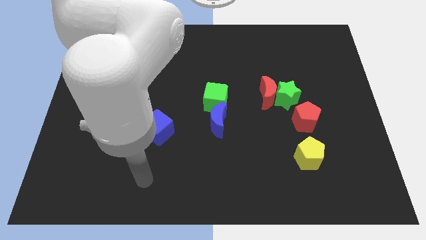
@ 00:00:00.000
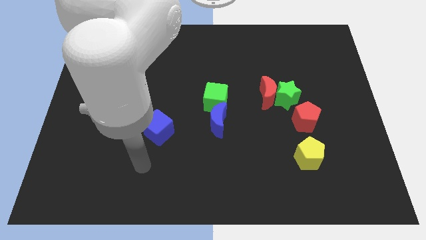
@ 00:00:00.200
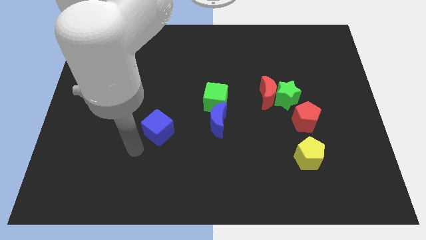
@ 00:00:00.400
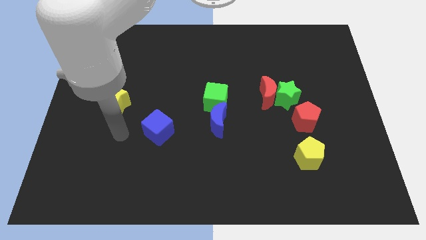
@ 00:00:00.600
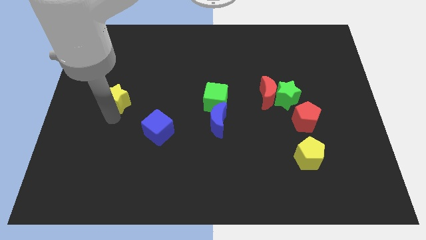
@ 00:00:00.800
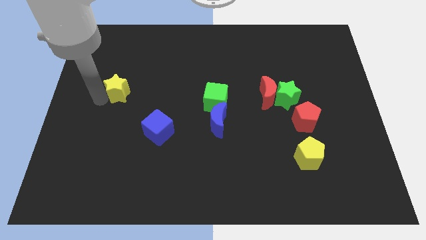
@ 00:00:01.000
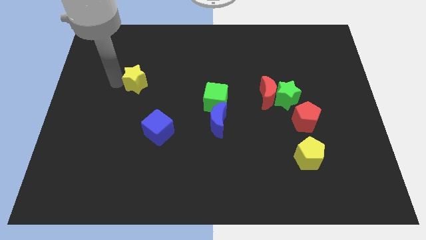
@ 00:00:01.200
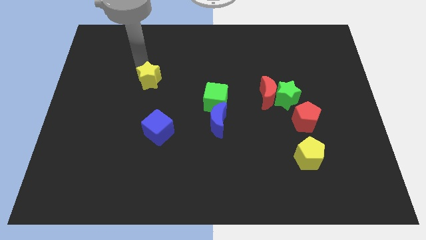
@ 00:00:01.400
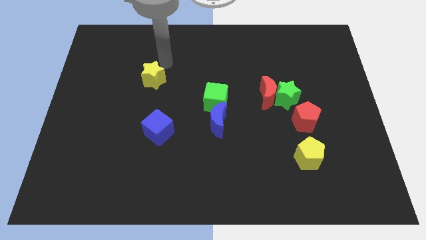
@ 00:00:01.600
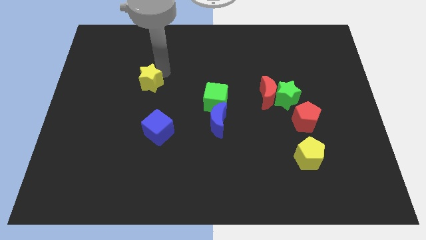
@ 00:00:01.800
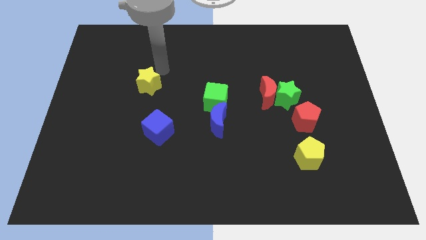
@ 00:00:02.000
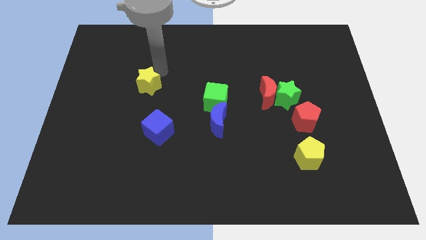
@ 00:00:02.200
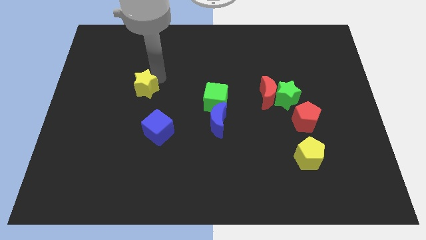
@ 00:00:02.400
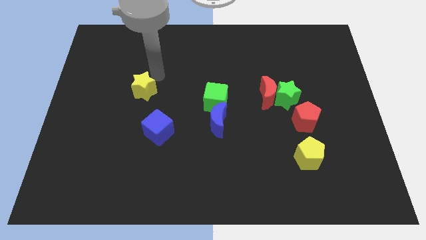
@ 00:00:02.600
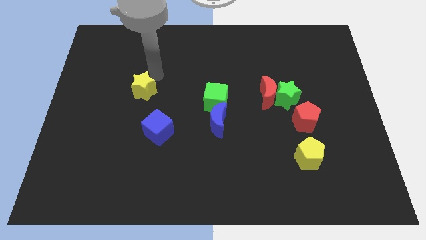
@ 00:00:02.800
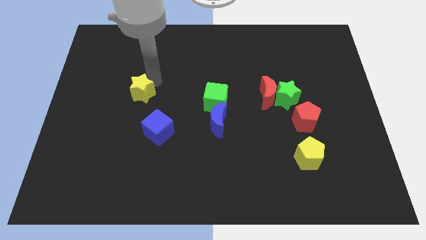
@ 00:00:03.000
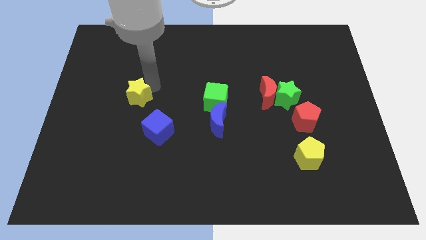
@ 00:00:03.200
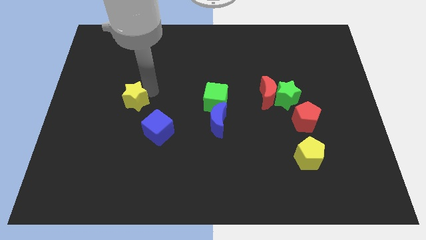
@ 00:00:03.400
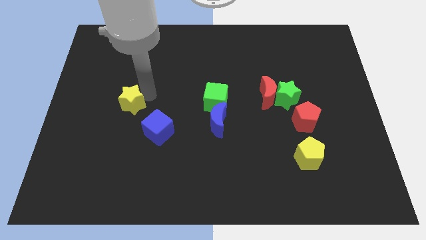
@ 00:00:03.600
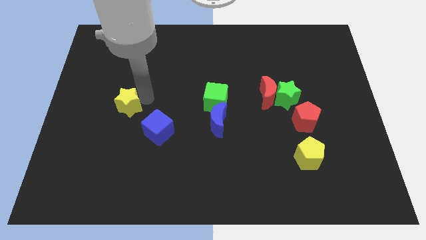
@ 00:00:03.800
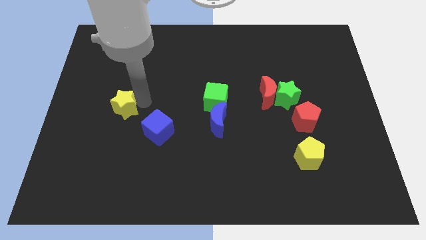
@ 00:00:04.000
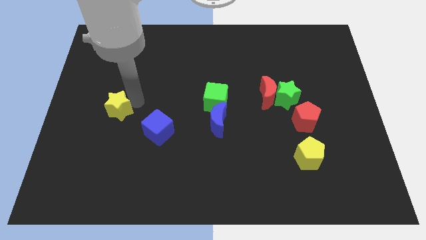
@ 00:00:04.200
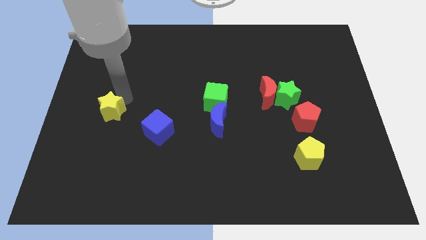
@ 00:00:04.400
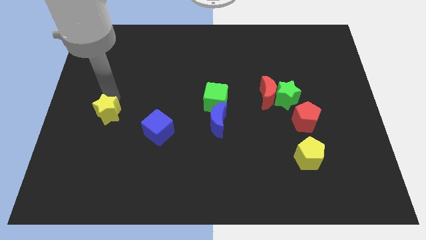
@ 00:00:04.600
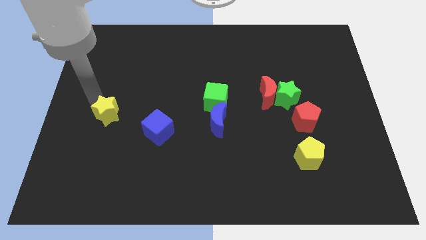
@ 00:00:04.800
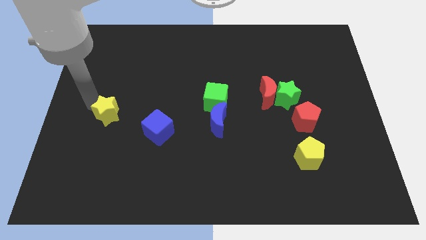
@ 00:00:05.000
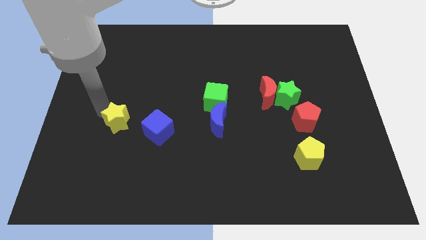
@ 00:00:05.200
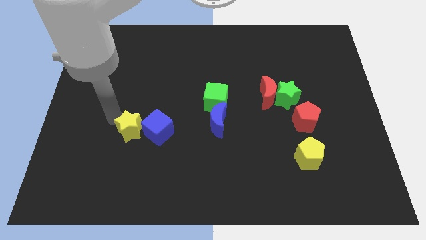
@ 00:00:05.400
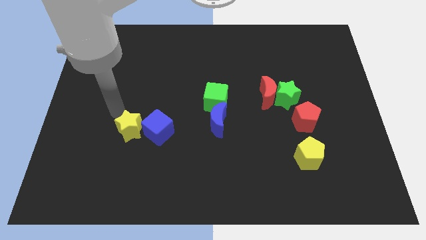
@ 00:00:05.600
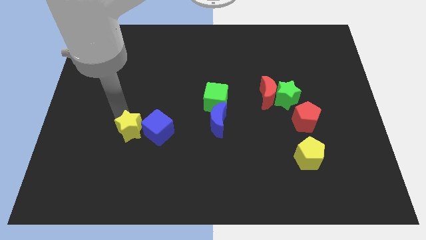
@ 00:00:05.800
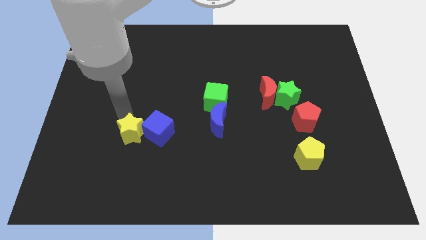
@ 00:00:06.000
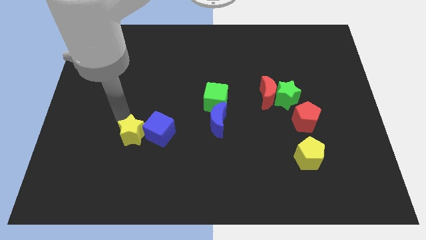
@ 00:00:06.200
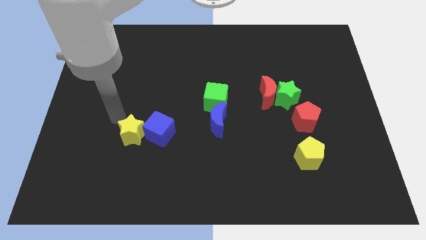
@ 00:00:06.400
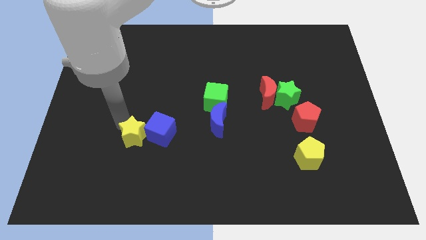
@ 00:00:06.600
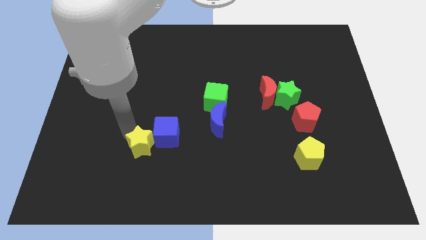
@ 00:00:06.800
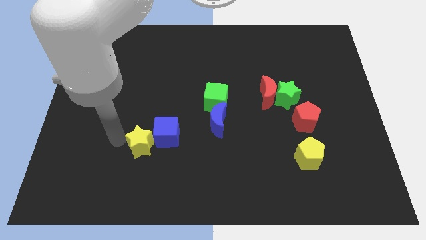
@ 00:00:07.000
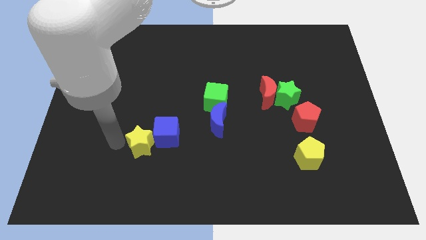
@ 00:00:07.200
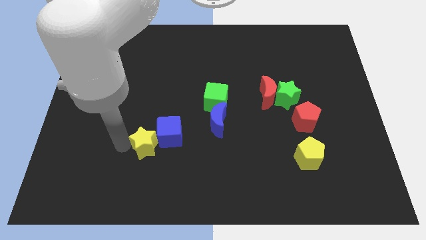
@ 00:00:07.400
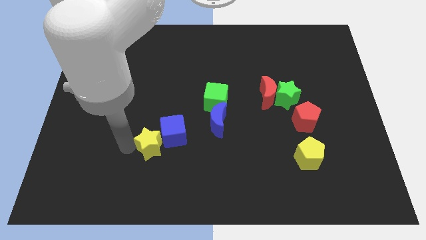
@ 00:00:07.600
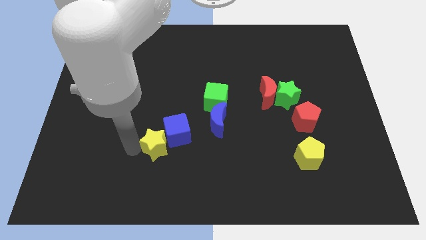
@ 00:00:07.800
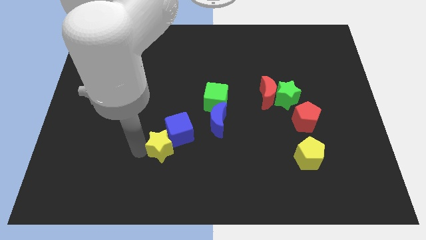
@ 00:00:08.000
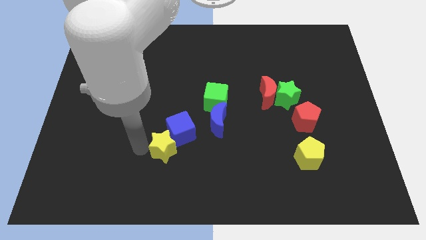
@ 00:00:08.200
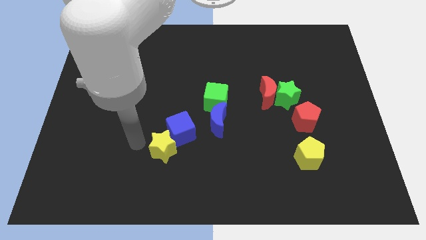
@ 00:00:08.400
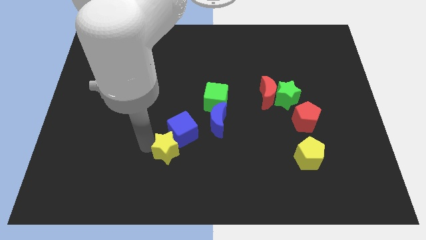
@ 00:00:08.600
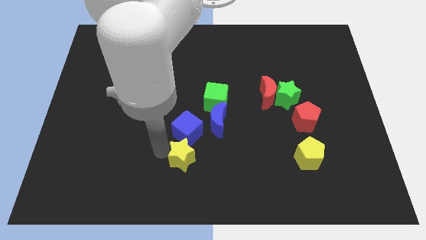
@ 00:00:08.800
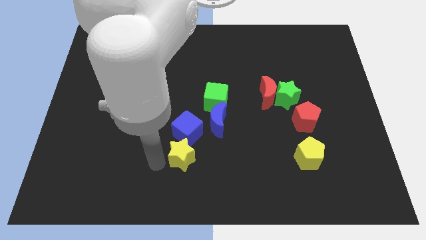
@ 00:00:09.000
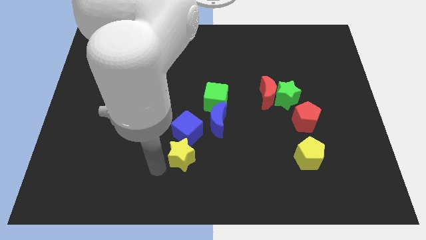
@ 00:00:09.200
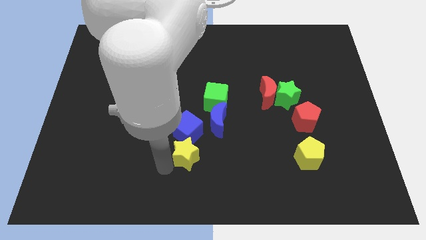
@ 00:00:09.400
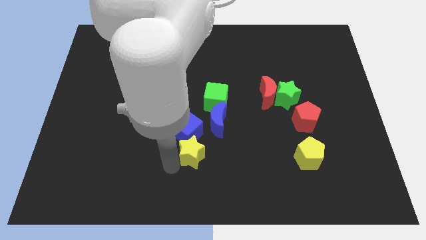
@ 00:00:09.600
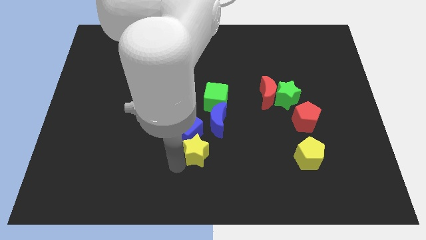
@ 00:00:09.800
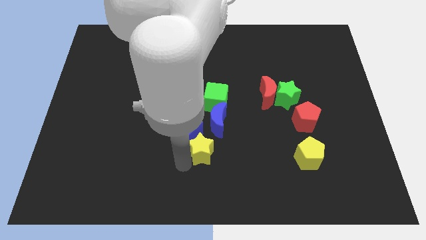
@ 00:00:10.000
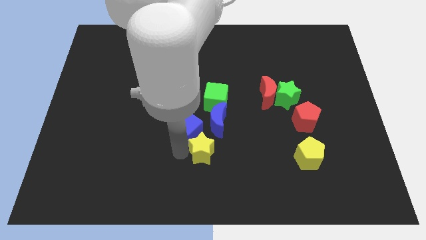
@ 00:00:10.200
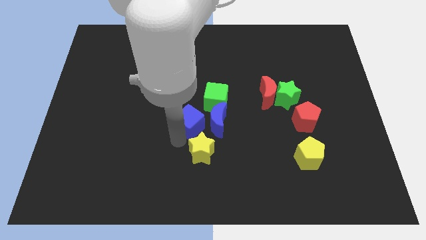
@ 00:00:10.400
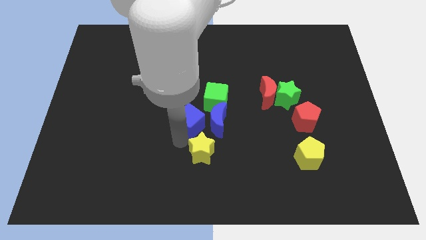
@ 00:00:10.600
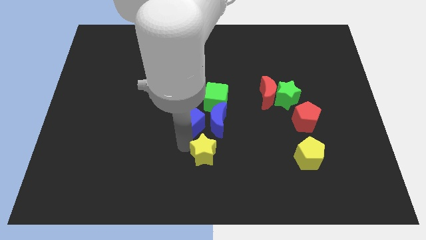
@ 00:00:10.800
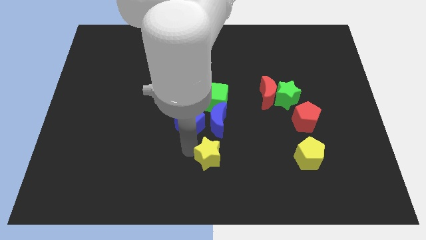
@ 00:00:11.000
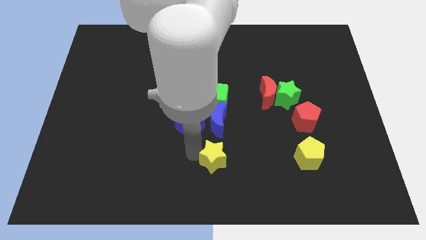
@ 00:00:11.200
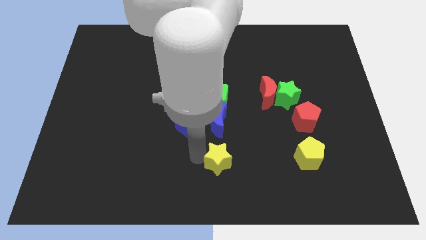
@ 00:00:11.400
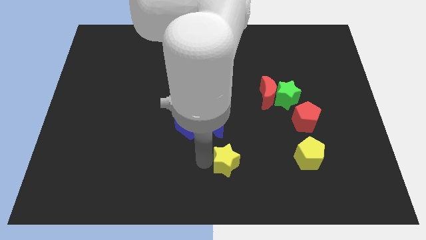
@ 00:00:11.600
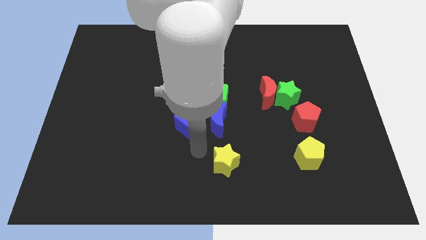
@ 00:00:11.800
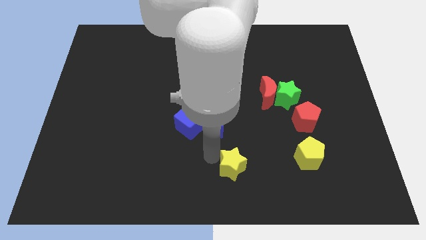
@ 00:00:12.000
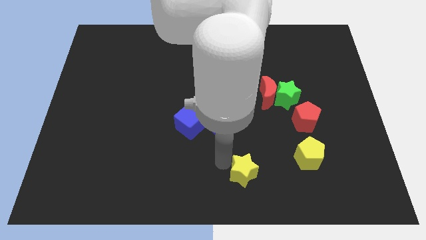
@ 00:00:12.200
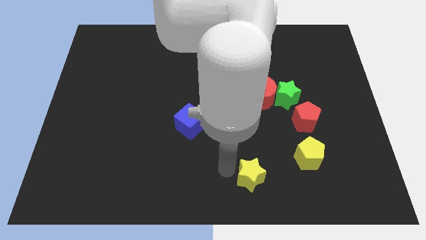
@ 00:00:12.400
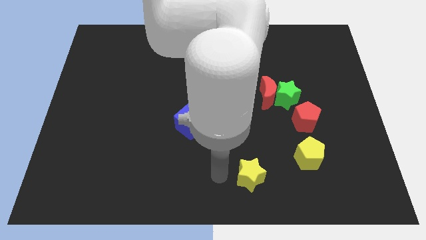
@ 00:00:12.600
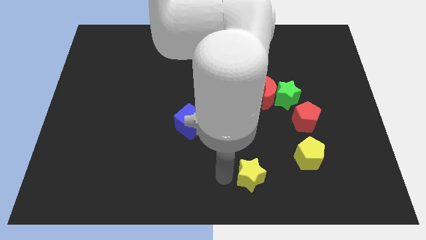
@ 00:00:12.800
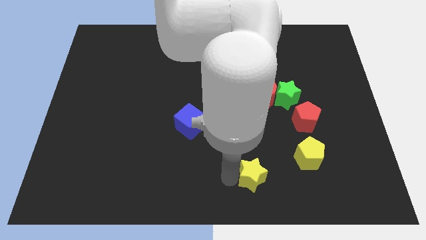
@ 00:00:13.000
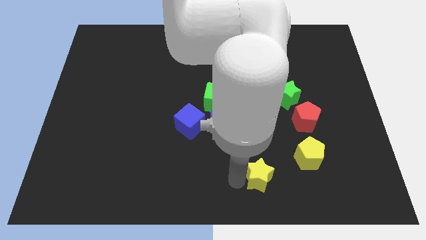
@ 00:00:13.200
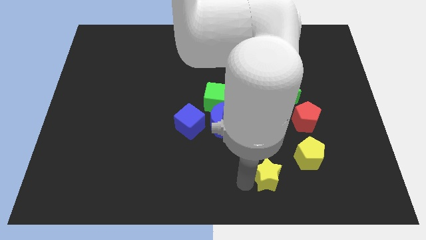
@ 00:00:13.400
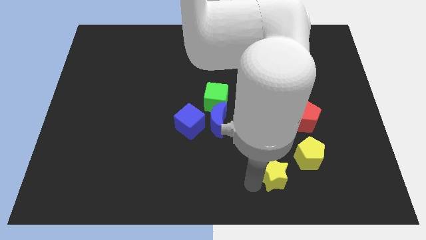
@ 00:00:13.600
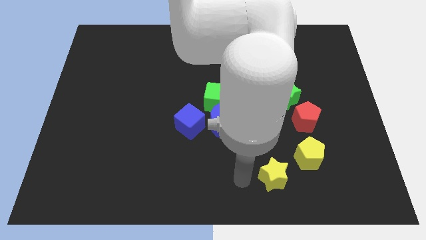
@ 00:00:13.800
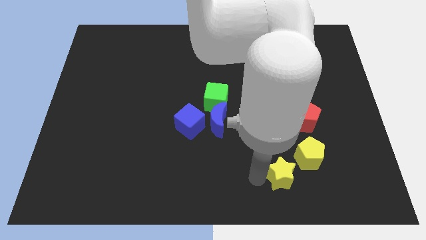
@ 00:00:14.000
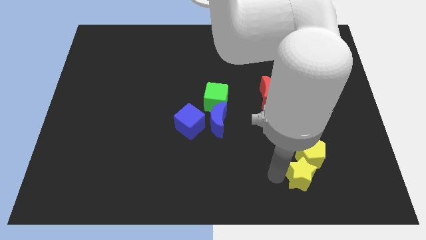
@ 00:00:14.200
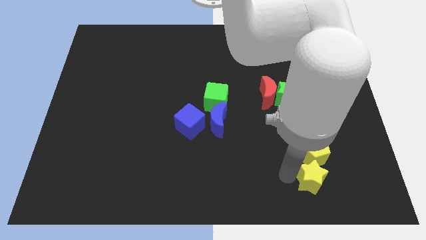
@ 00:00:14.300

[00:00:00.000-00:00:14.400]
put the yellow star diagonally down and to the right of the yellow pentagon
